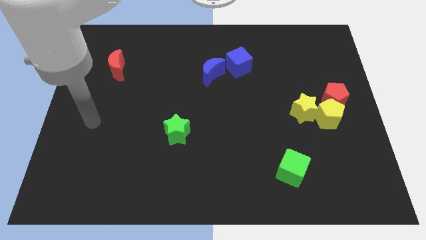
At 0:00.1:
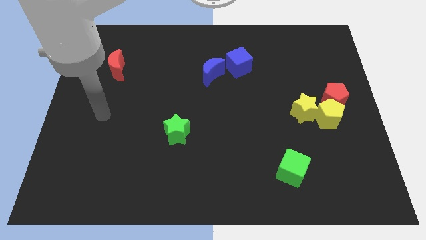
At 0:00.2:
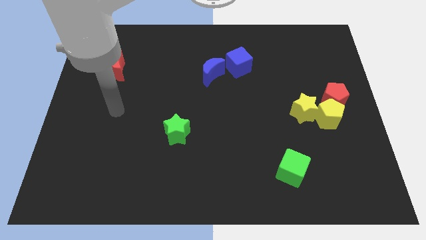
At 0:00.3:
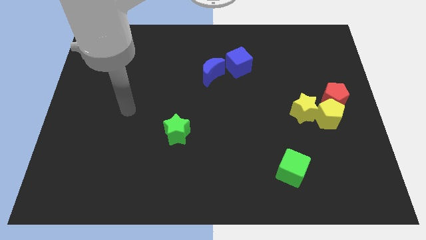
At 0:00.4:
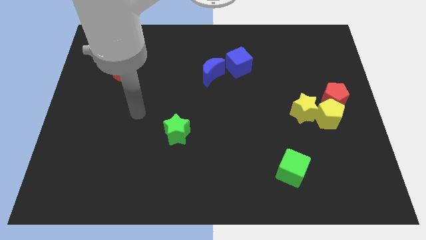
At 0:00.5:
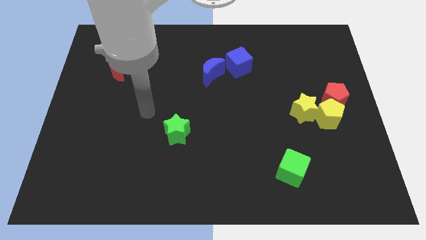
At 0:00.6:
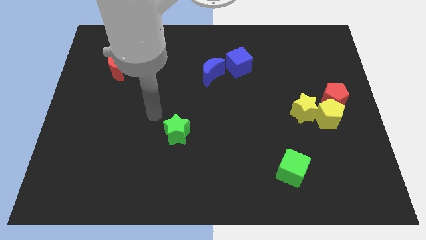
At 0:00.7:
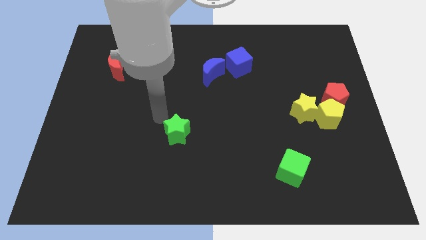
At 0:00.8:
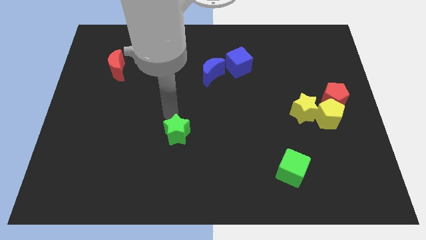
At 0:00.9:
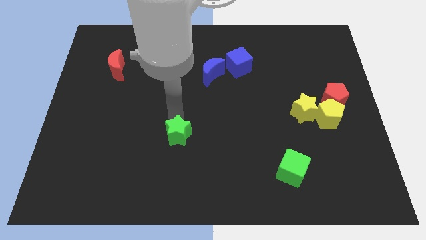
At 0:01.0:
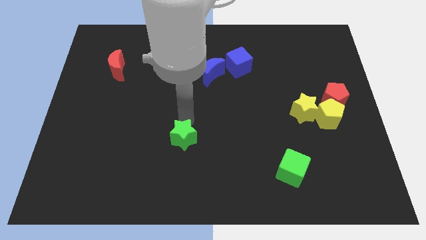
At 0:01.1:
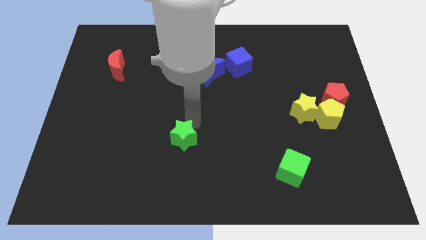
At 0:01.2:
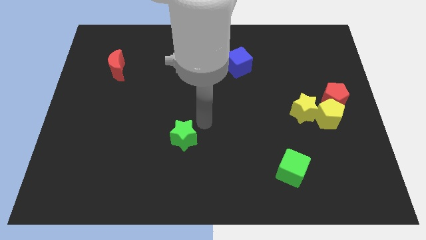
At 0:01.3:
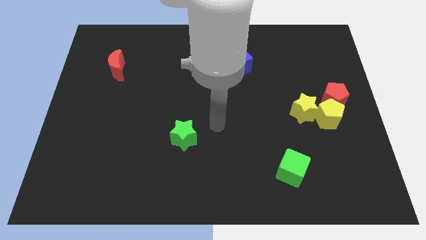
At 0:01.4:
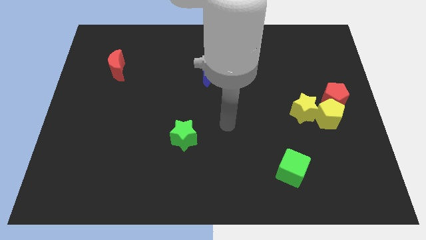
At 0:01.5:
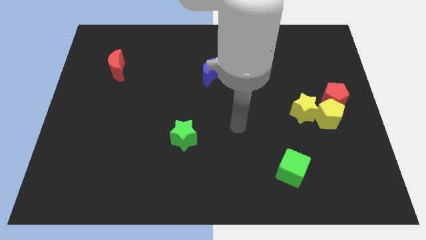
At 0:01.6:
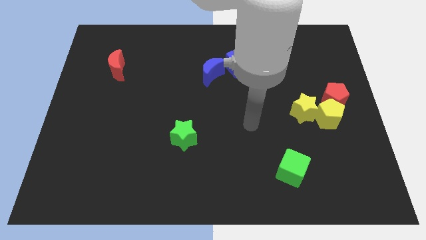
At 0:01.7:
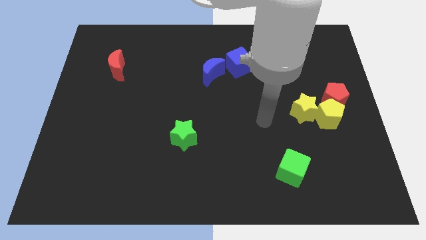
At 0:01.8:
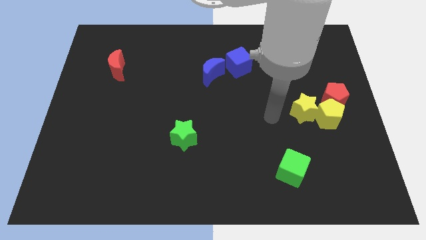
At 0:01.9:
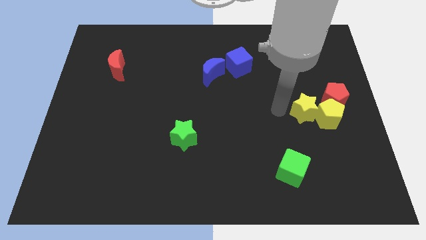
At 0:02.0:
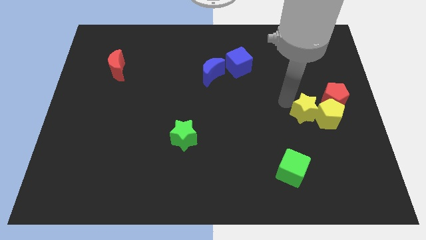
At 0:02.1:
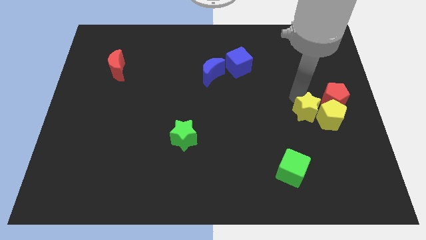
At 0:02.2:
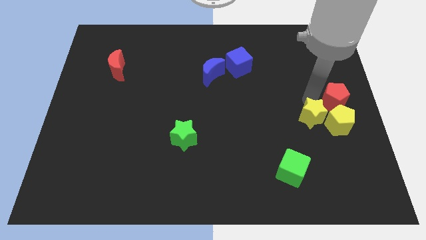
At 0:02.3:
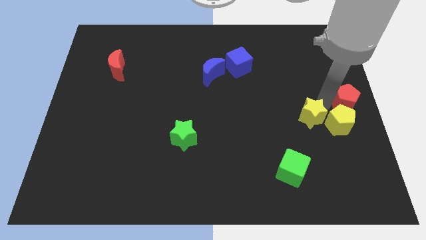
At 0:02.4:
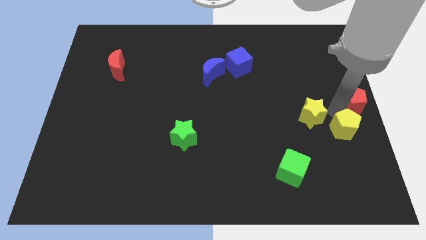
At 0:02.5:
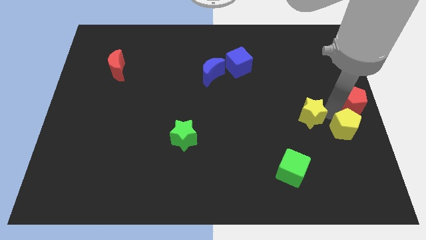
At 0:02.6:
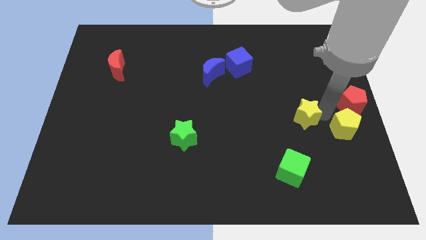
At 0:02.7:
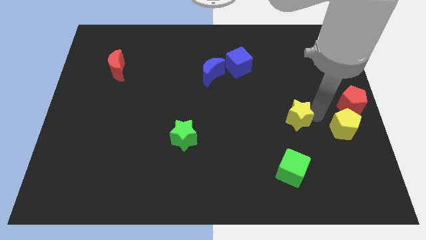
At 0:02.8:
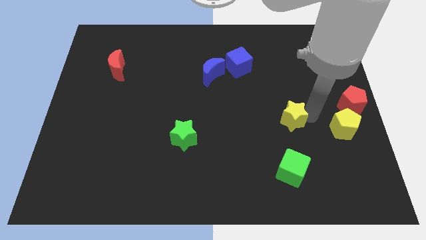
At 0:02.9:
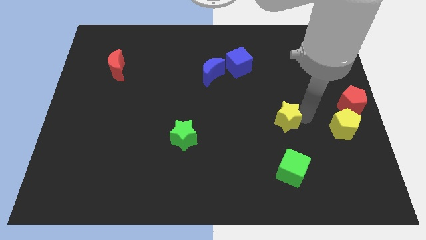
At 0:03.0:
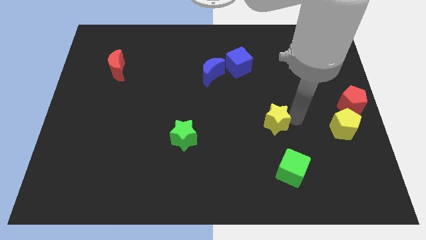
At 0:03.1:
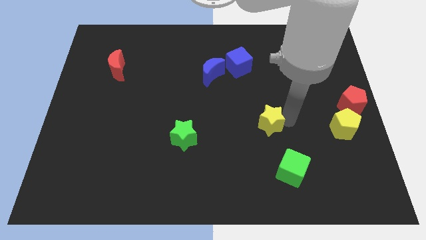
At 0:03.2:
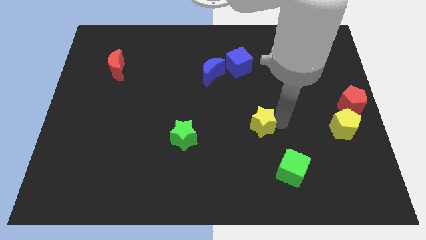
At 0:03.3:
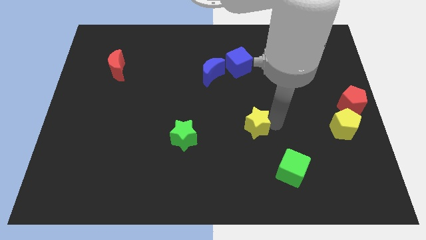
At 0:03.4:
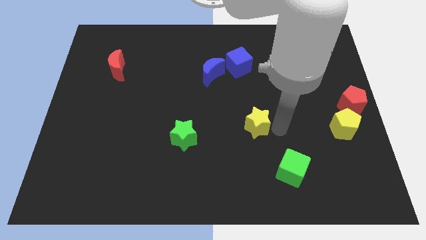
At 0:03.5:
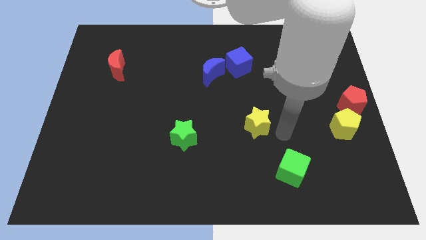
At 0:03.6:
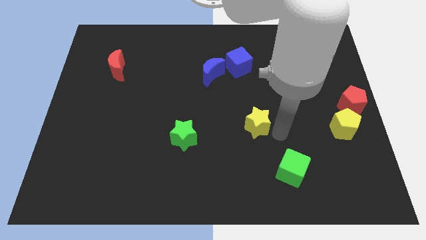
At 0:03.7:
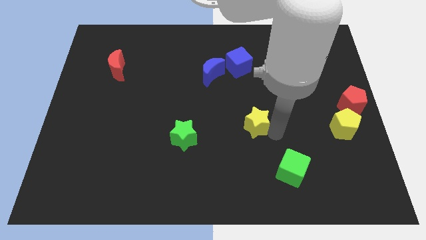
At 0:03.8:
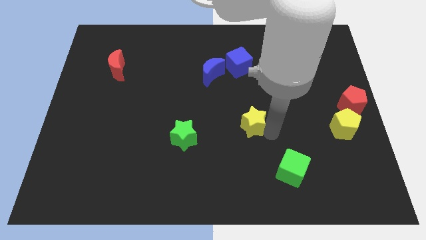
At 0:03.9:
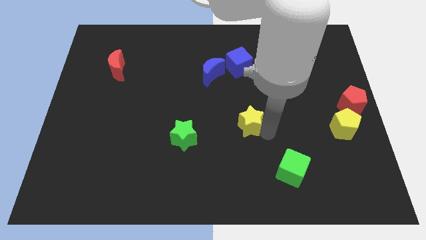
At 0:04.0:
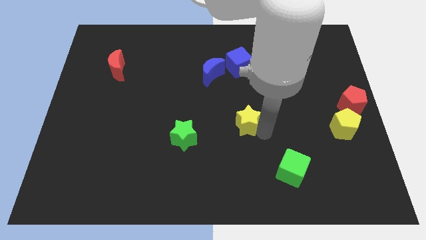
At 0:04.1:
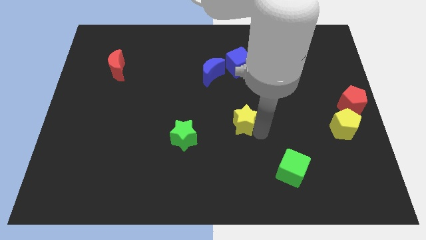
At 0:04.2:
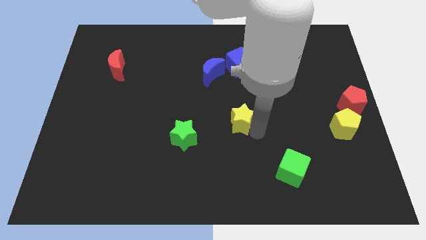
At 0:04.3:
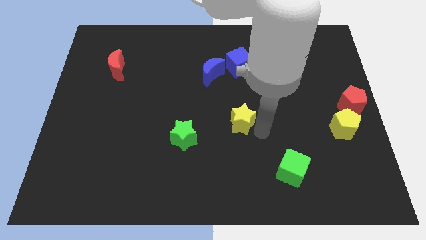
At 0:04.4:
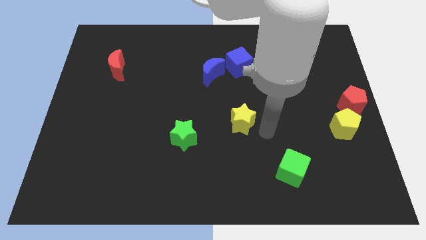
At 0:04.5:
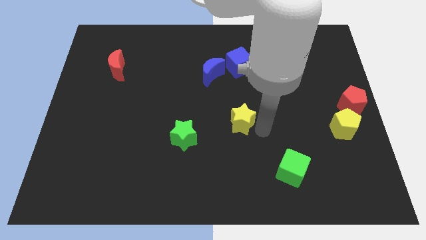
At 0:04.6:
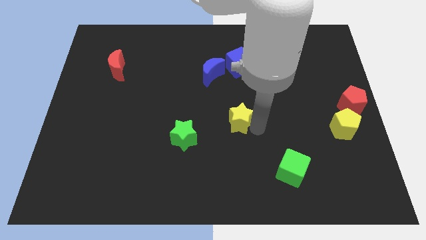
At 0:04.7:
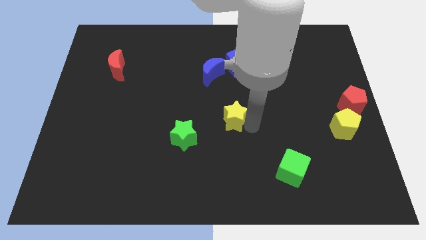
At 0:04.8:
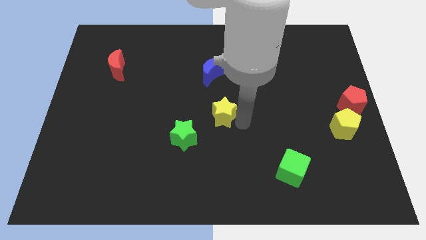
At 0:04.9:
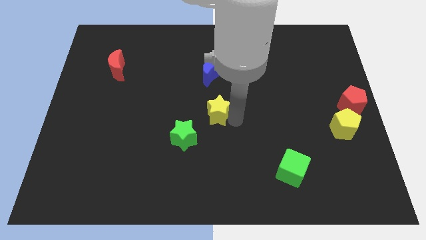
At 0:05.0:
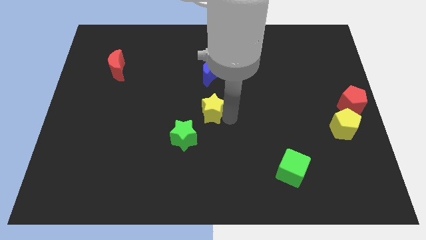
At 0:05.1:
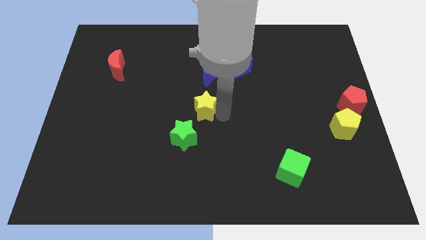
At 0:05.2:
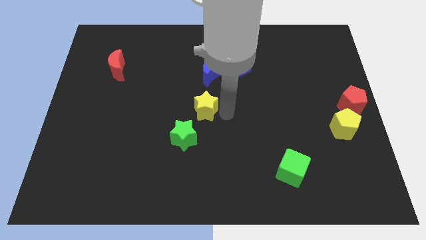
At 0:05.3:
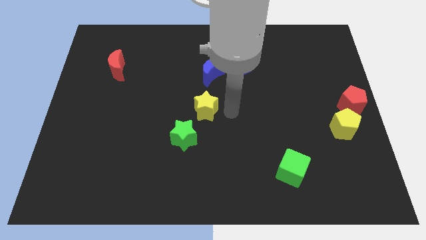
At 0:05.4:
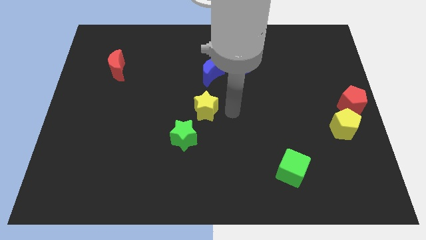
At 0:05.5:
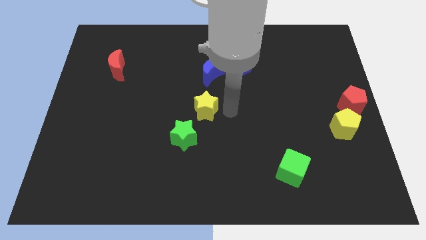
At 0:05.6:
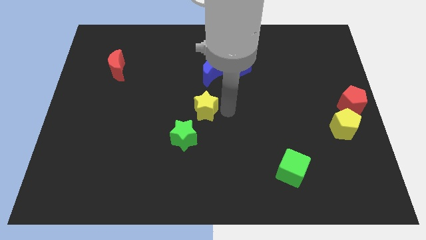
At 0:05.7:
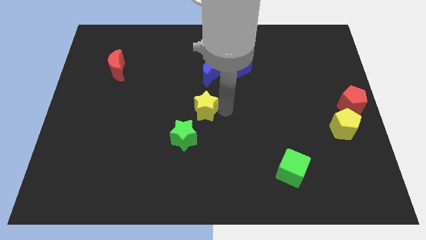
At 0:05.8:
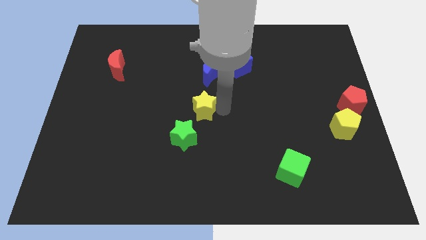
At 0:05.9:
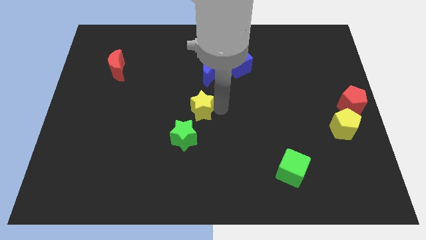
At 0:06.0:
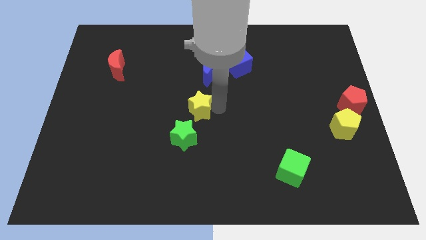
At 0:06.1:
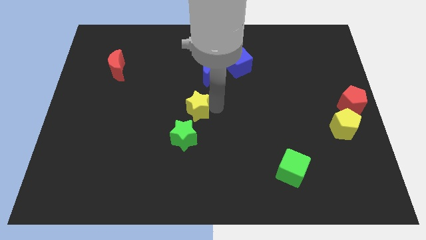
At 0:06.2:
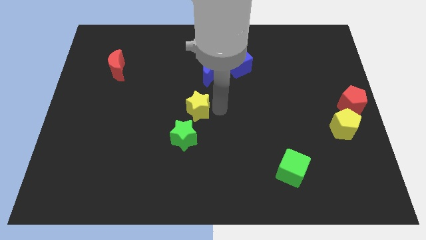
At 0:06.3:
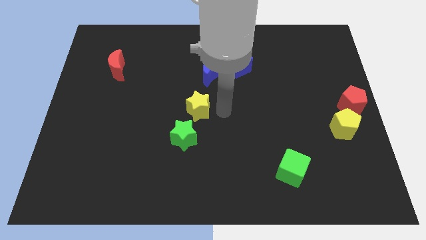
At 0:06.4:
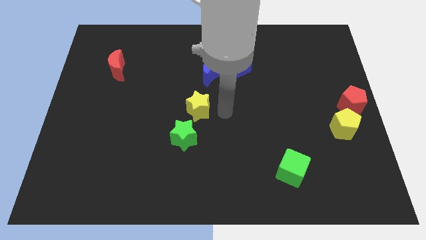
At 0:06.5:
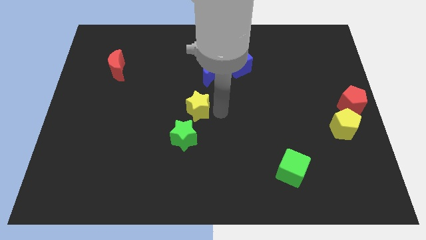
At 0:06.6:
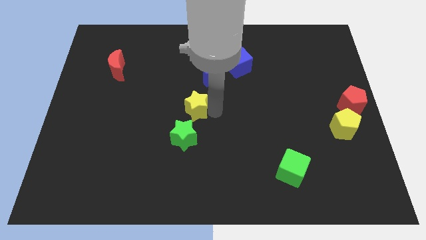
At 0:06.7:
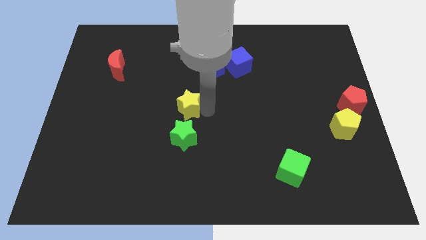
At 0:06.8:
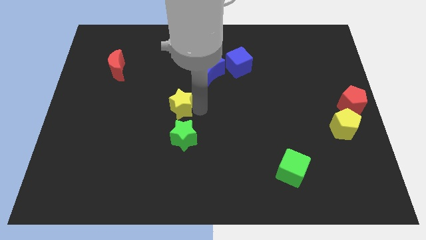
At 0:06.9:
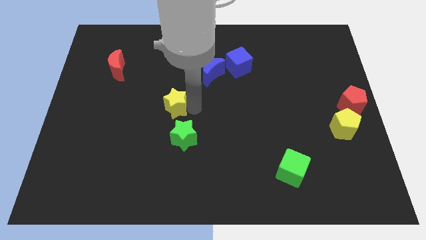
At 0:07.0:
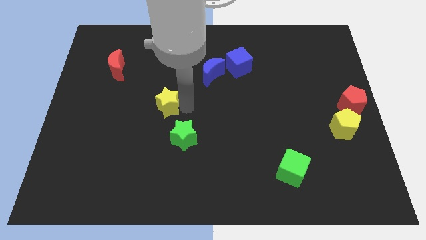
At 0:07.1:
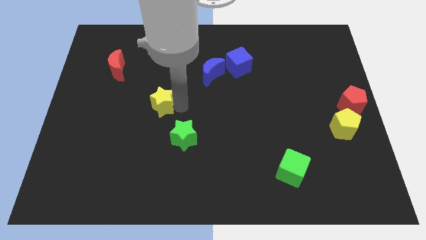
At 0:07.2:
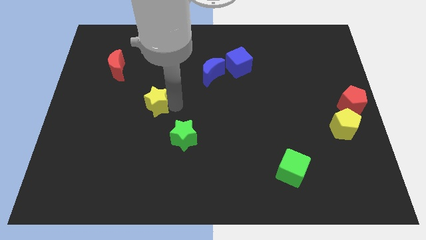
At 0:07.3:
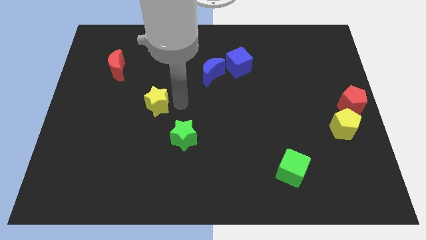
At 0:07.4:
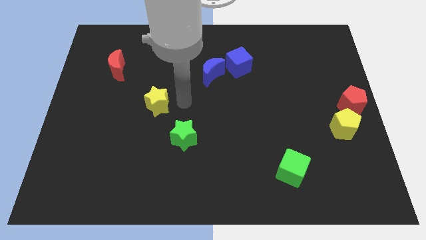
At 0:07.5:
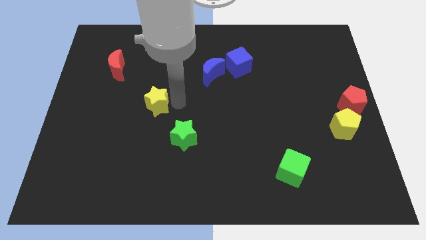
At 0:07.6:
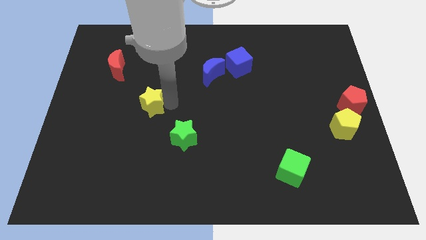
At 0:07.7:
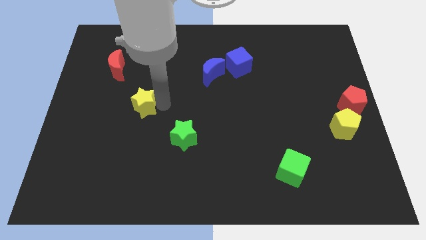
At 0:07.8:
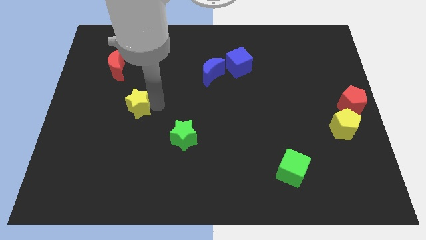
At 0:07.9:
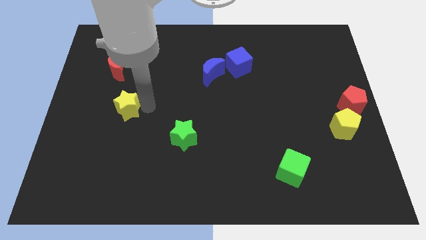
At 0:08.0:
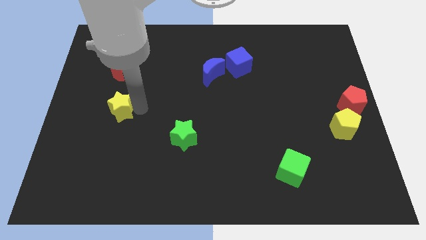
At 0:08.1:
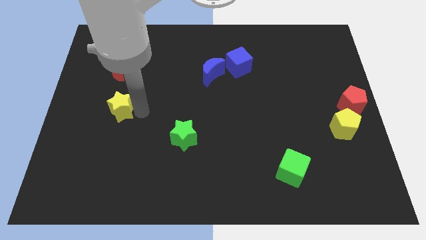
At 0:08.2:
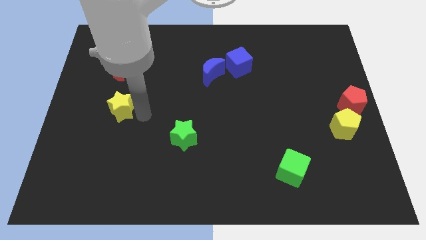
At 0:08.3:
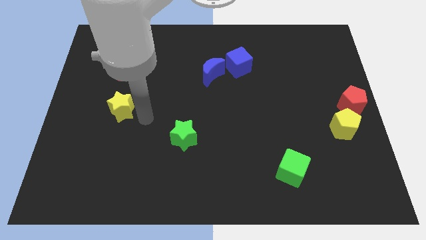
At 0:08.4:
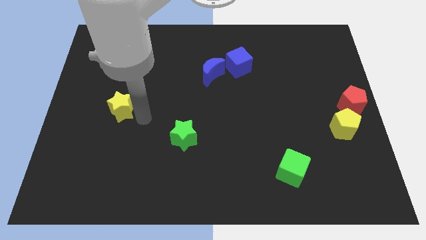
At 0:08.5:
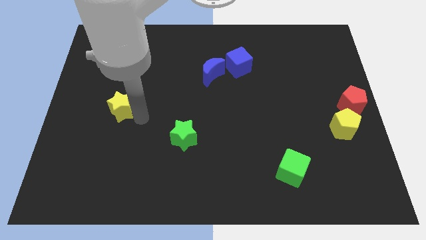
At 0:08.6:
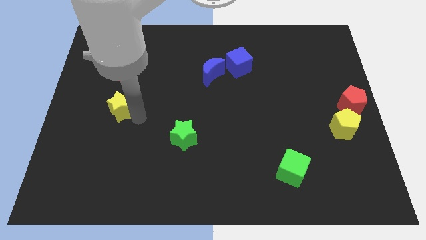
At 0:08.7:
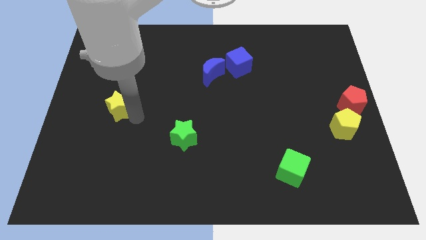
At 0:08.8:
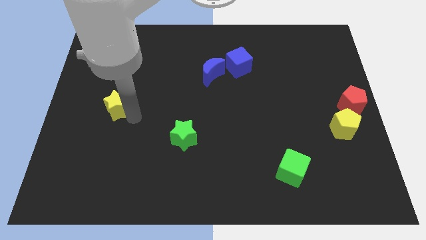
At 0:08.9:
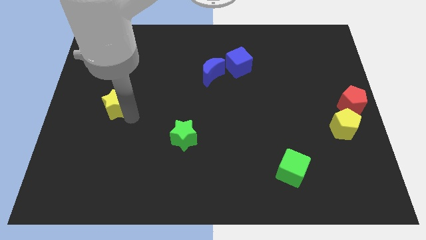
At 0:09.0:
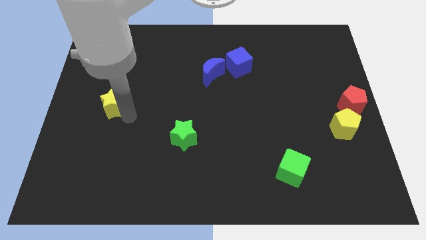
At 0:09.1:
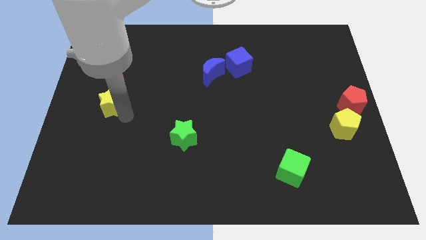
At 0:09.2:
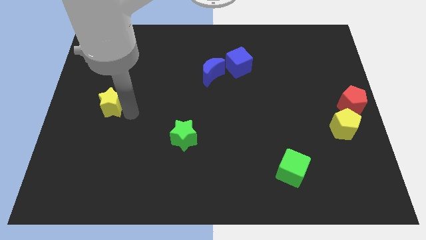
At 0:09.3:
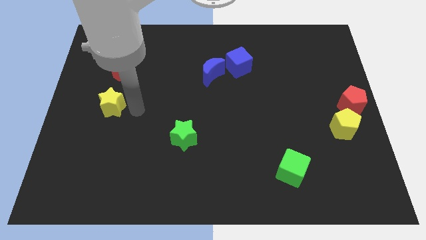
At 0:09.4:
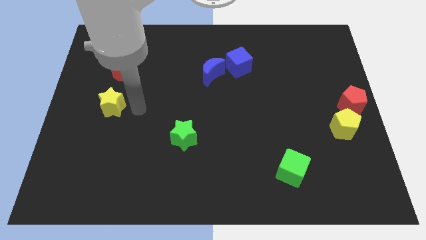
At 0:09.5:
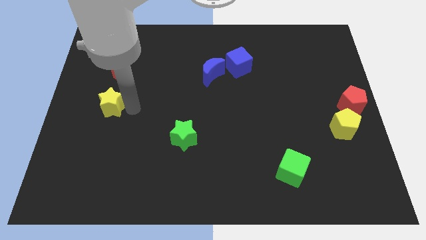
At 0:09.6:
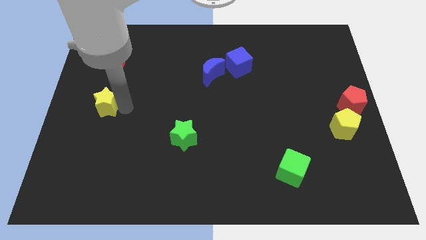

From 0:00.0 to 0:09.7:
move the yellow star to the left side
